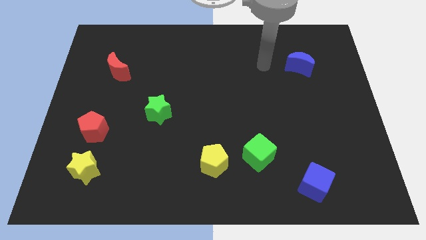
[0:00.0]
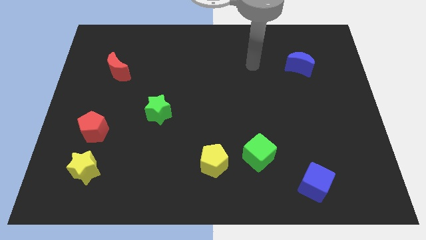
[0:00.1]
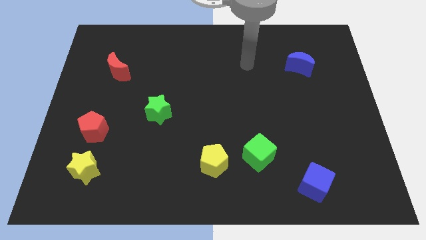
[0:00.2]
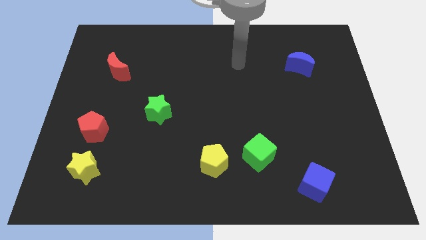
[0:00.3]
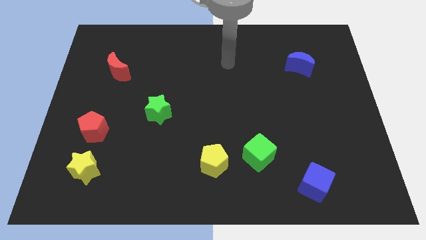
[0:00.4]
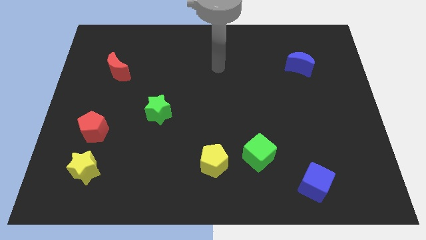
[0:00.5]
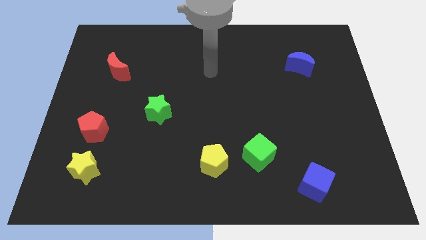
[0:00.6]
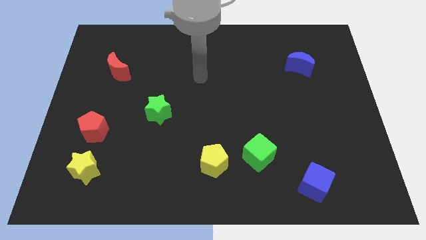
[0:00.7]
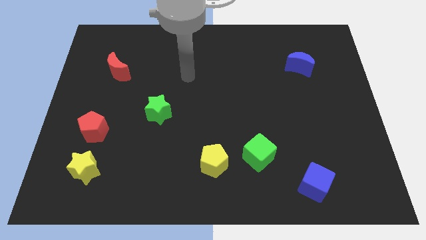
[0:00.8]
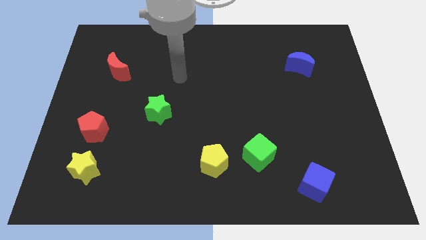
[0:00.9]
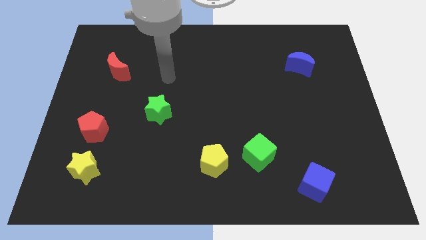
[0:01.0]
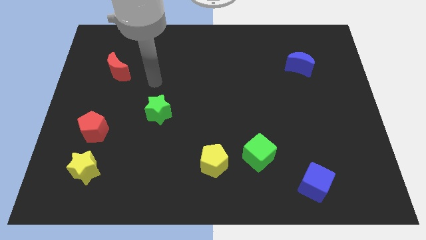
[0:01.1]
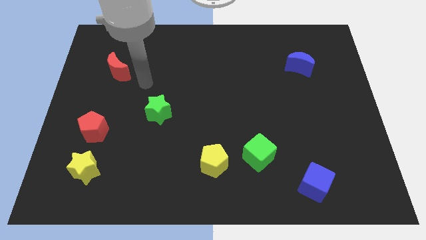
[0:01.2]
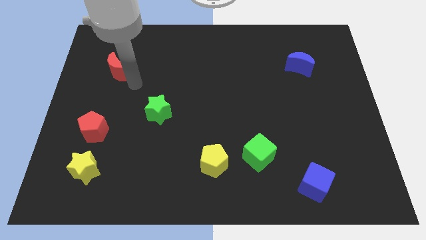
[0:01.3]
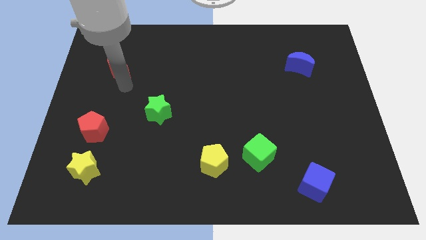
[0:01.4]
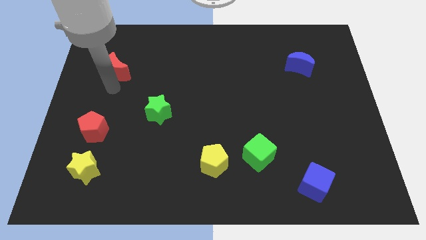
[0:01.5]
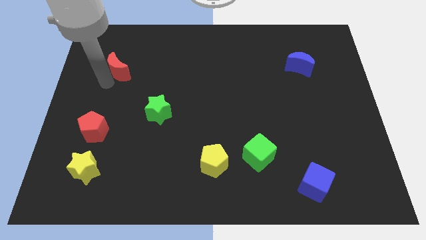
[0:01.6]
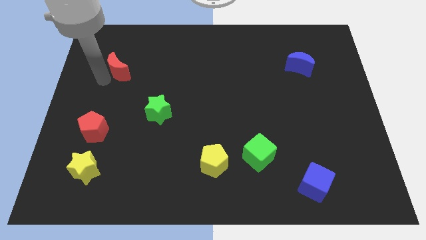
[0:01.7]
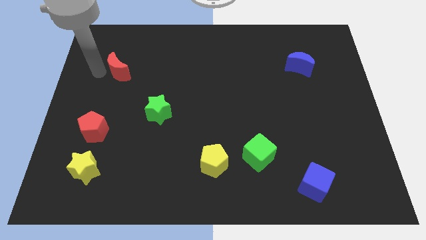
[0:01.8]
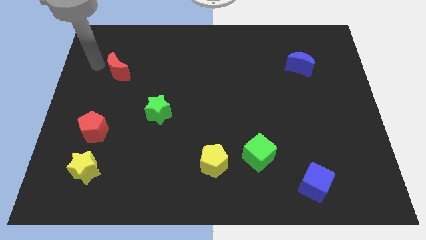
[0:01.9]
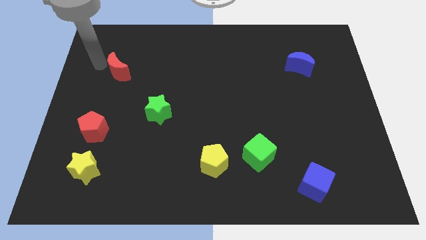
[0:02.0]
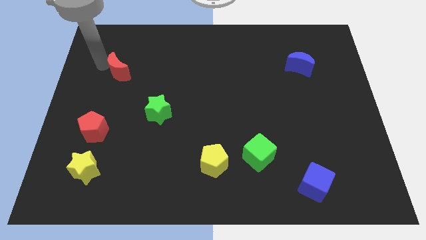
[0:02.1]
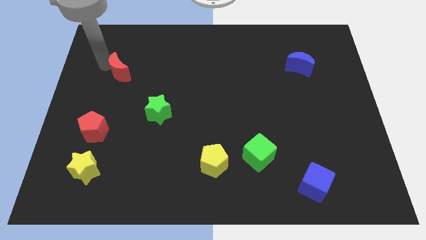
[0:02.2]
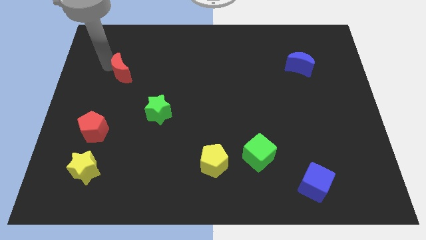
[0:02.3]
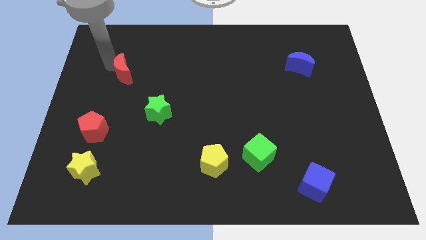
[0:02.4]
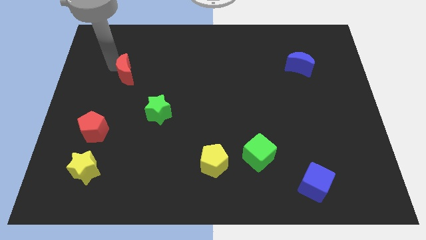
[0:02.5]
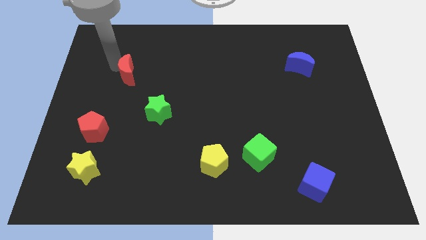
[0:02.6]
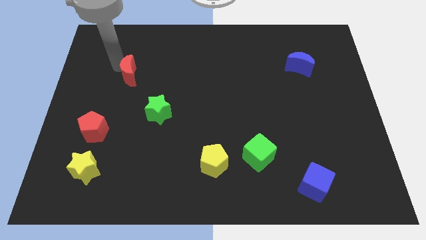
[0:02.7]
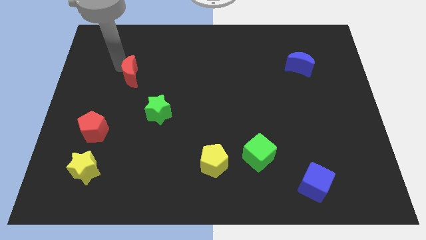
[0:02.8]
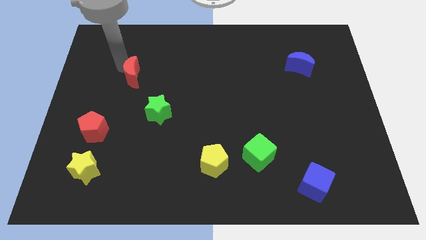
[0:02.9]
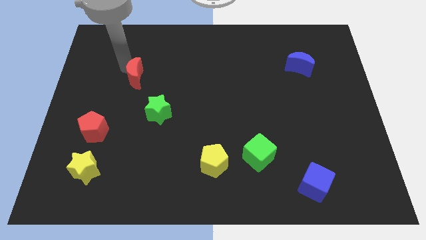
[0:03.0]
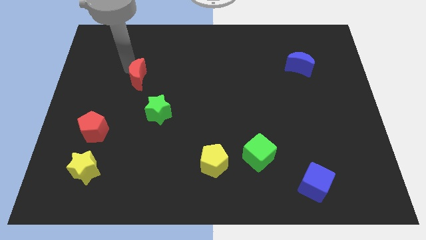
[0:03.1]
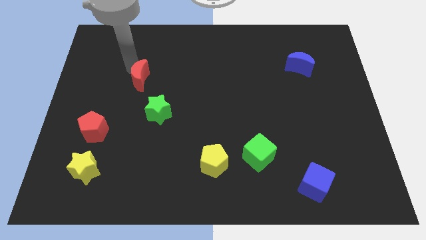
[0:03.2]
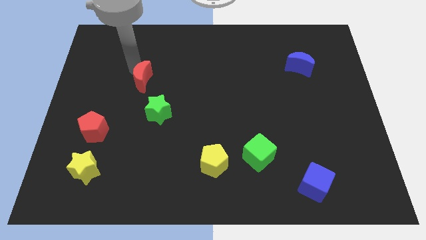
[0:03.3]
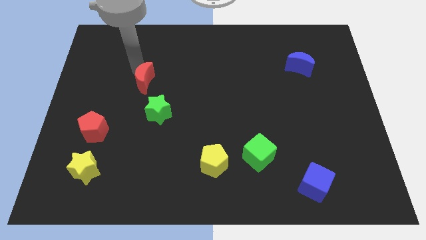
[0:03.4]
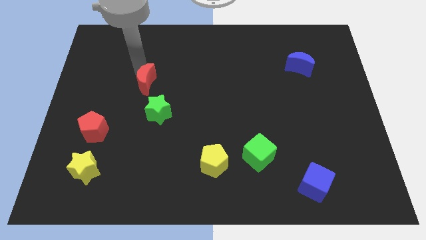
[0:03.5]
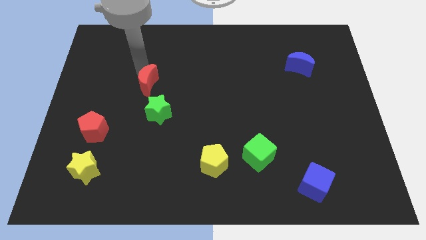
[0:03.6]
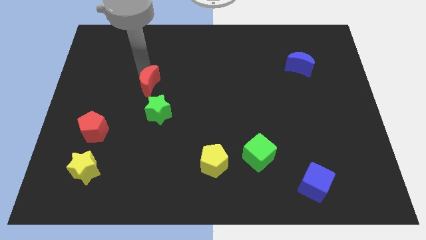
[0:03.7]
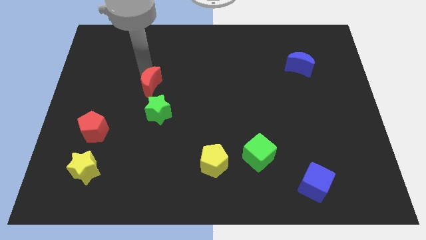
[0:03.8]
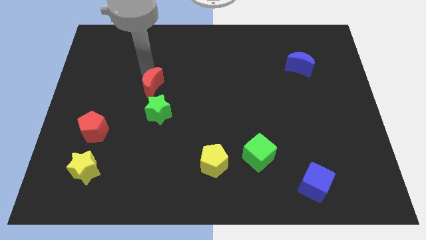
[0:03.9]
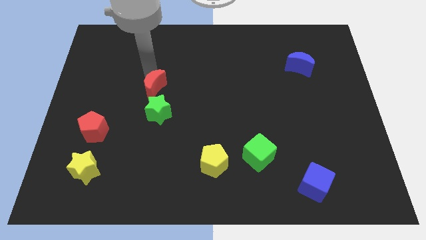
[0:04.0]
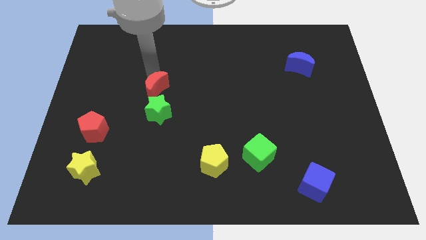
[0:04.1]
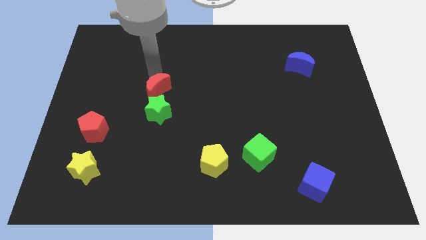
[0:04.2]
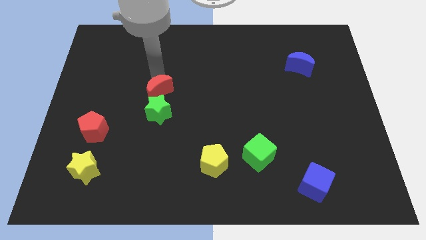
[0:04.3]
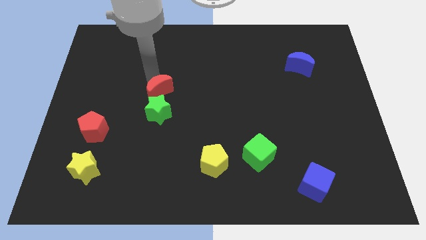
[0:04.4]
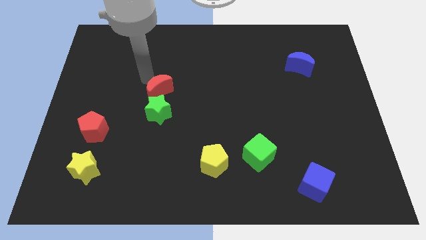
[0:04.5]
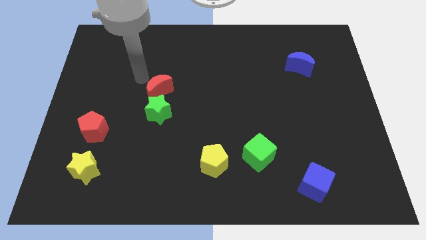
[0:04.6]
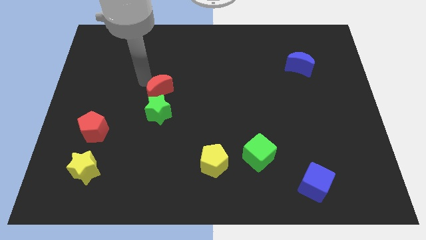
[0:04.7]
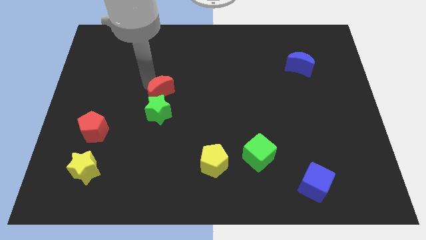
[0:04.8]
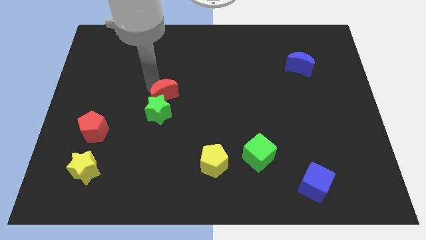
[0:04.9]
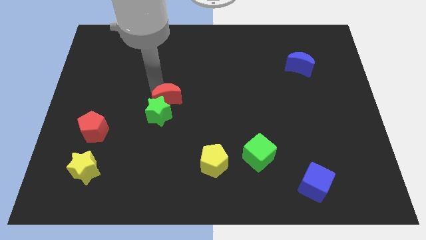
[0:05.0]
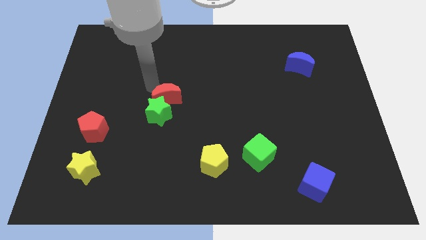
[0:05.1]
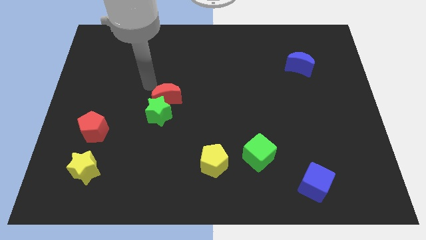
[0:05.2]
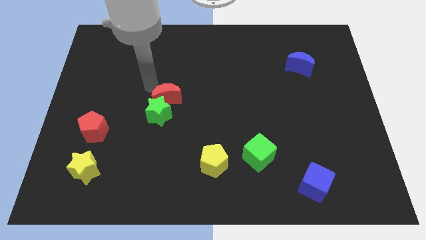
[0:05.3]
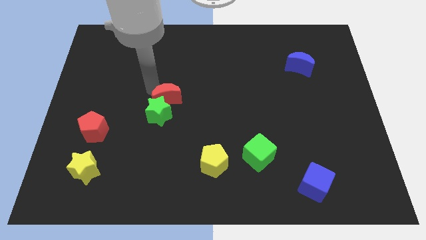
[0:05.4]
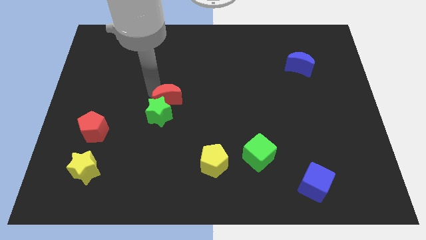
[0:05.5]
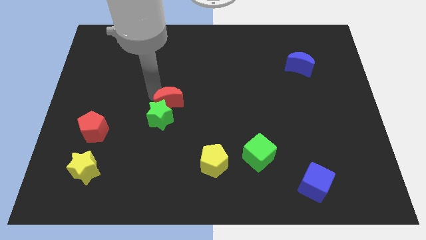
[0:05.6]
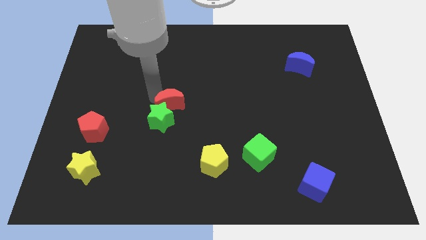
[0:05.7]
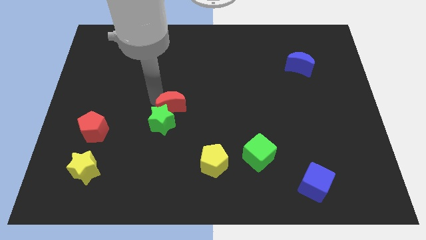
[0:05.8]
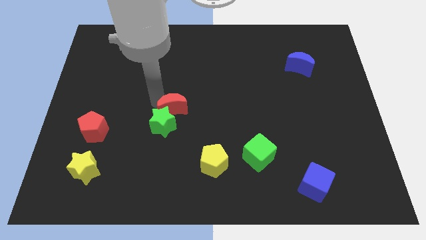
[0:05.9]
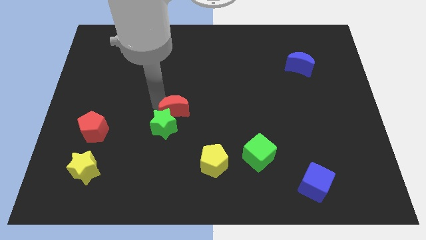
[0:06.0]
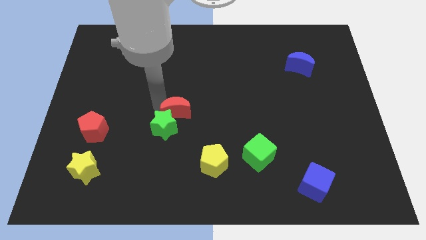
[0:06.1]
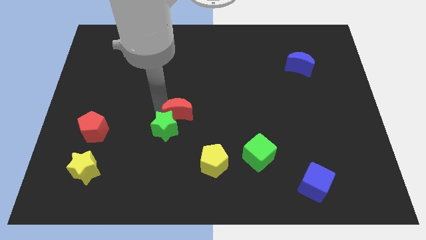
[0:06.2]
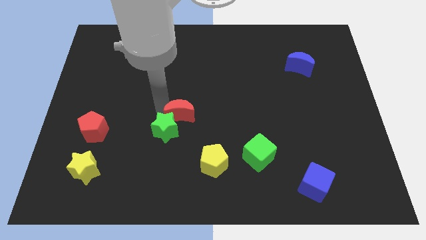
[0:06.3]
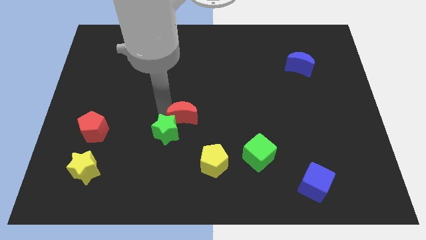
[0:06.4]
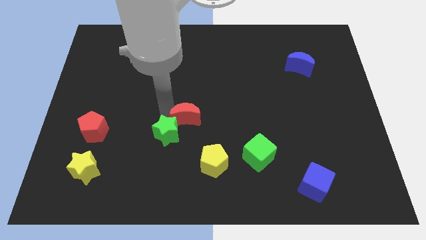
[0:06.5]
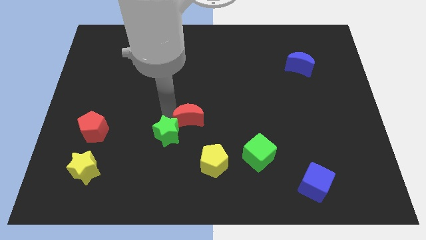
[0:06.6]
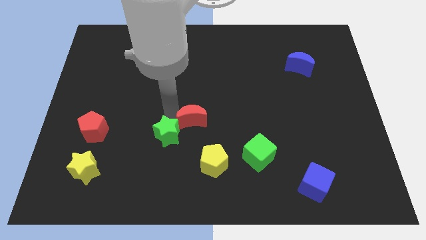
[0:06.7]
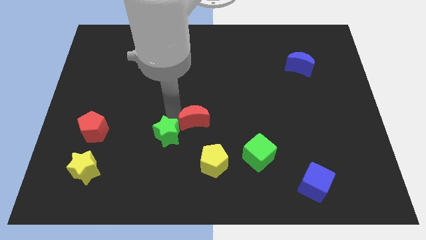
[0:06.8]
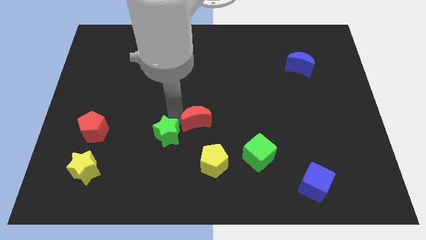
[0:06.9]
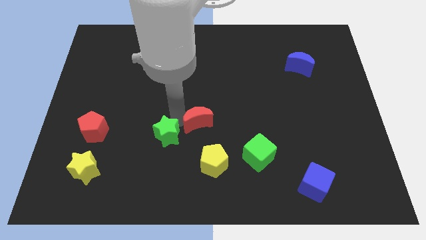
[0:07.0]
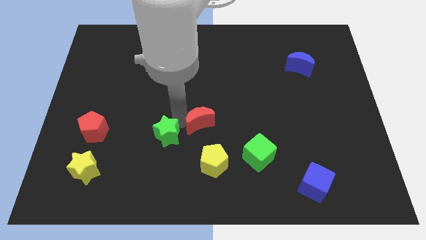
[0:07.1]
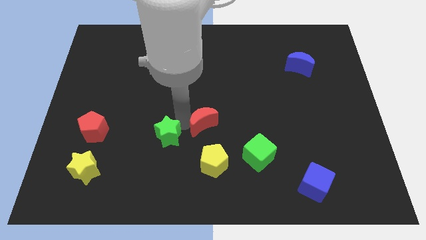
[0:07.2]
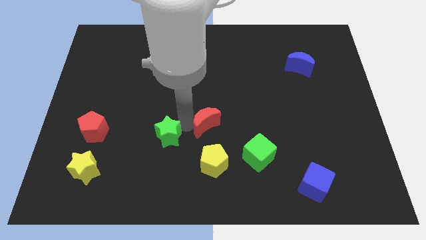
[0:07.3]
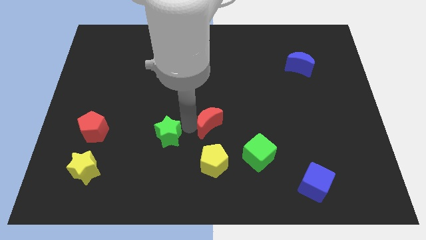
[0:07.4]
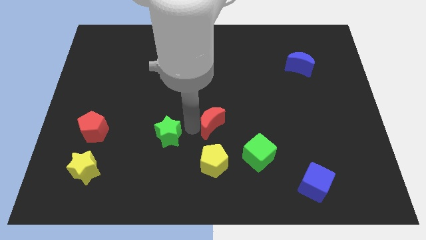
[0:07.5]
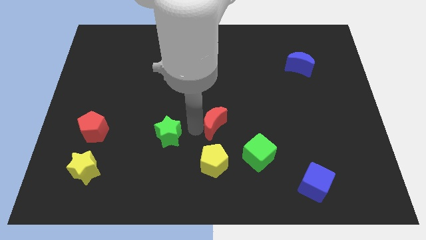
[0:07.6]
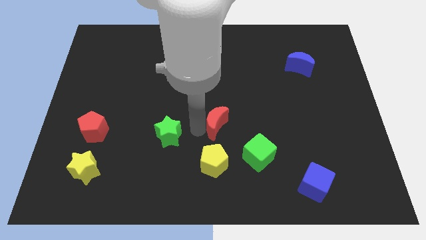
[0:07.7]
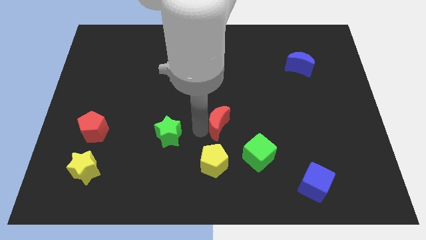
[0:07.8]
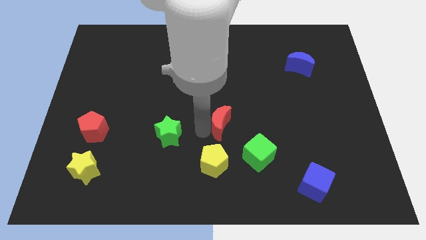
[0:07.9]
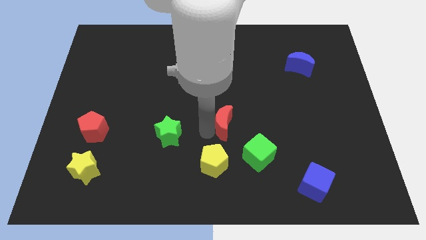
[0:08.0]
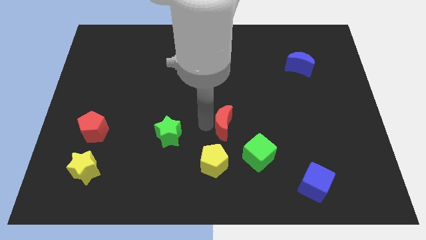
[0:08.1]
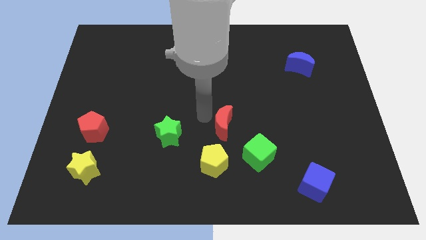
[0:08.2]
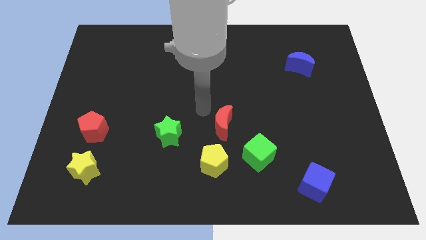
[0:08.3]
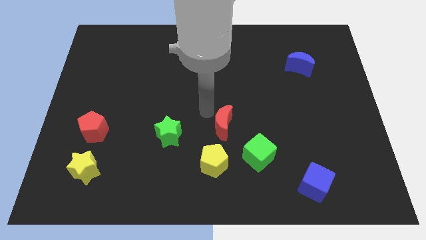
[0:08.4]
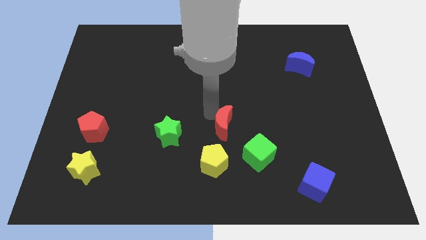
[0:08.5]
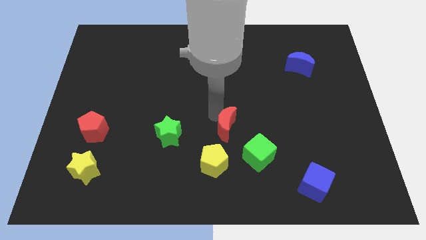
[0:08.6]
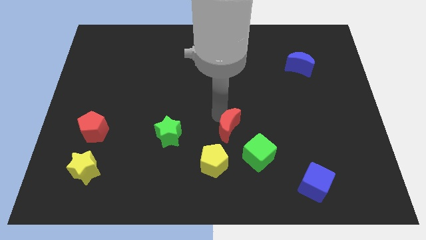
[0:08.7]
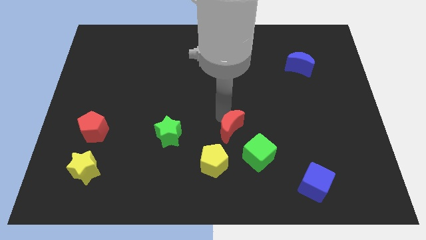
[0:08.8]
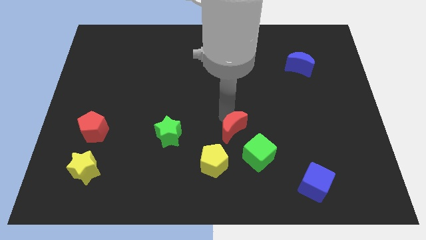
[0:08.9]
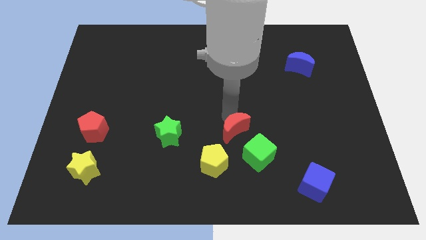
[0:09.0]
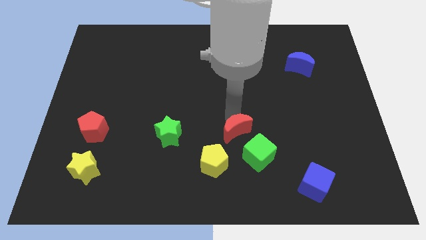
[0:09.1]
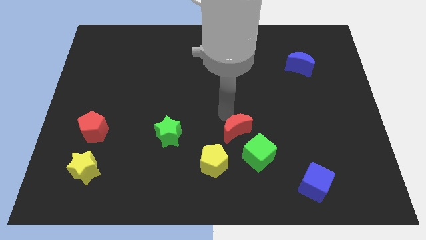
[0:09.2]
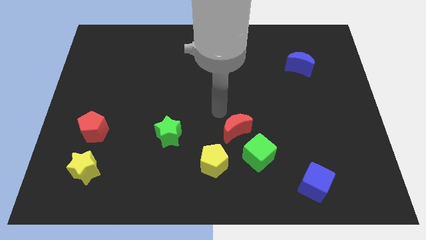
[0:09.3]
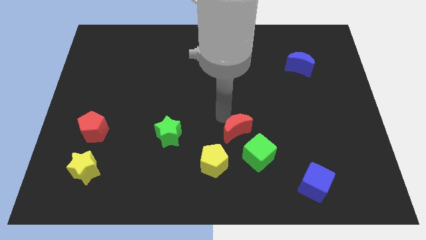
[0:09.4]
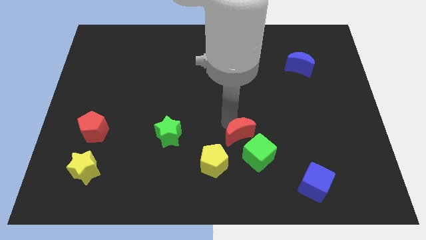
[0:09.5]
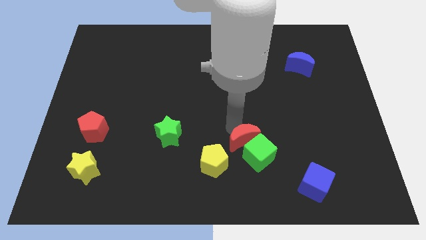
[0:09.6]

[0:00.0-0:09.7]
push the red moon next to the green cube
